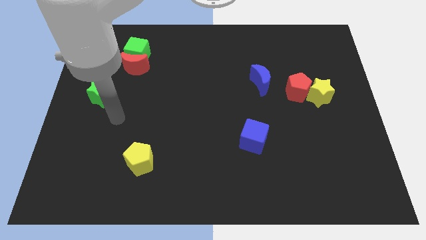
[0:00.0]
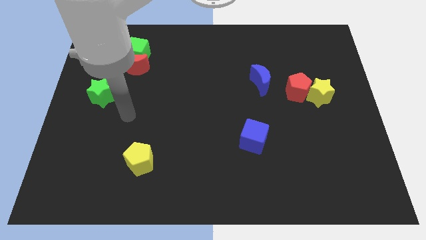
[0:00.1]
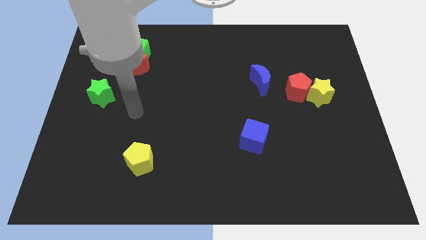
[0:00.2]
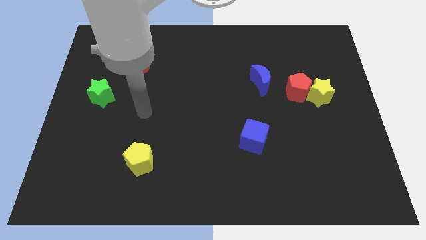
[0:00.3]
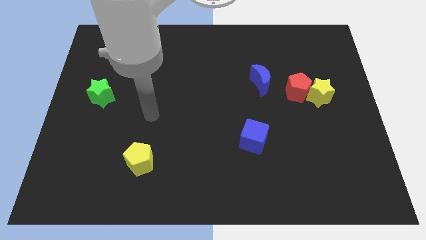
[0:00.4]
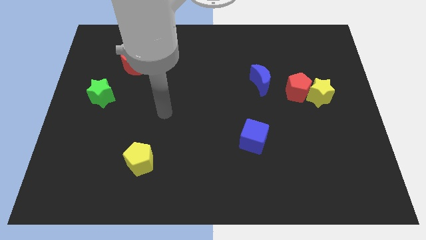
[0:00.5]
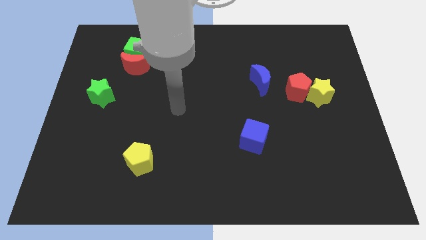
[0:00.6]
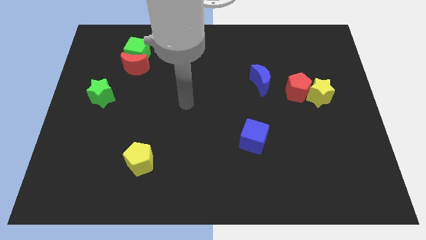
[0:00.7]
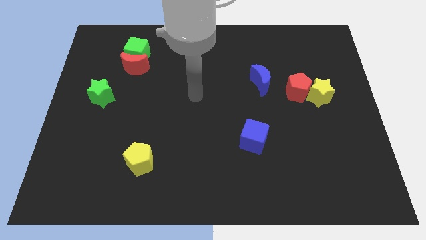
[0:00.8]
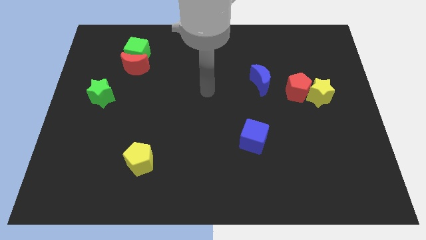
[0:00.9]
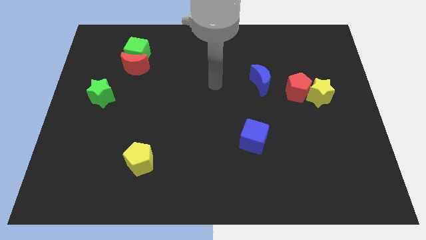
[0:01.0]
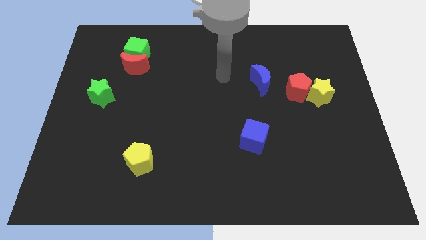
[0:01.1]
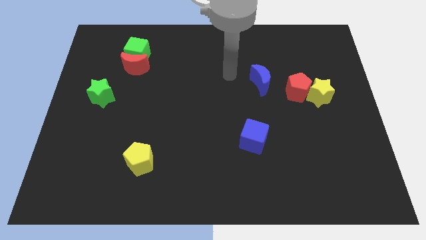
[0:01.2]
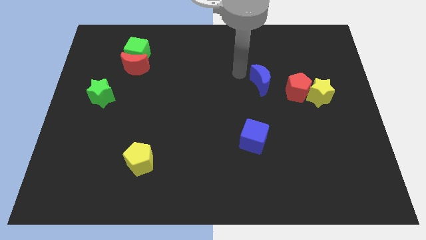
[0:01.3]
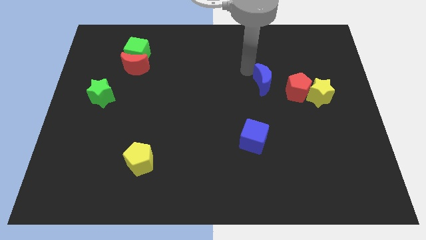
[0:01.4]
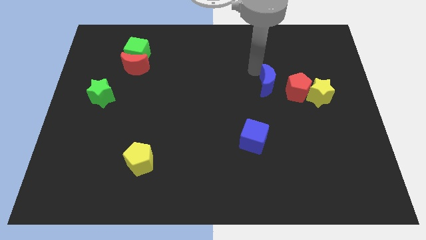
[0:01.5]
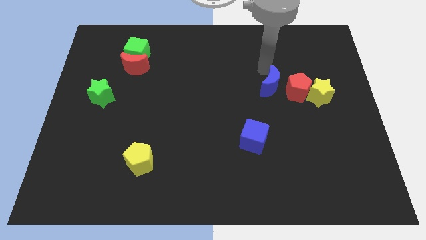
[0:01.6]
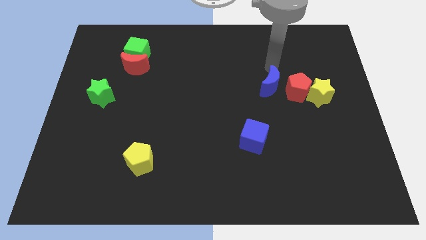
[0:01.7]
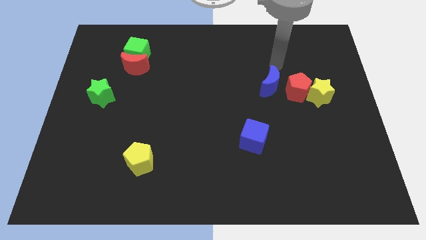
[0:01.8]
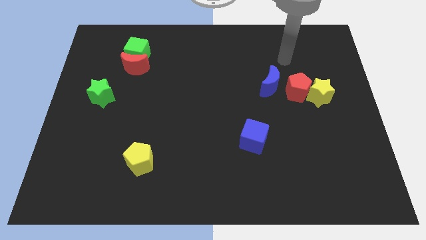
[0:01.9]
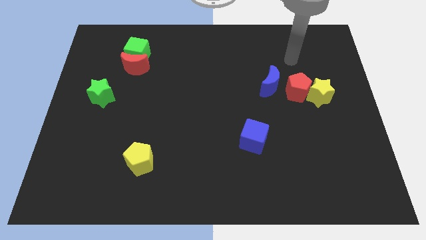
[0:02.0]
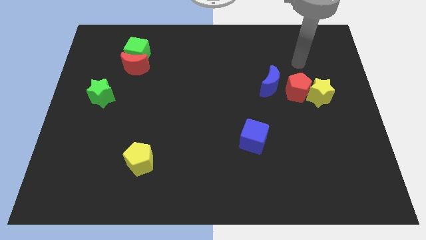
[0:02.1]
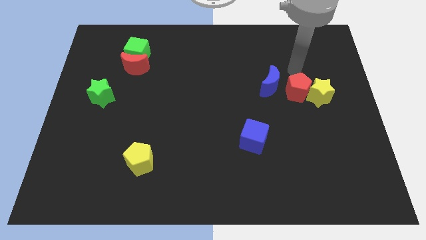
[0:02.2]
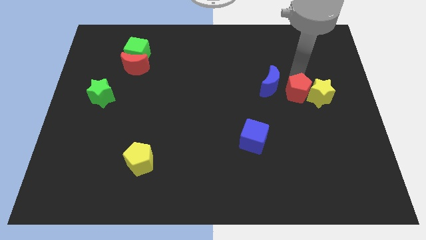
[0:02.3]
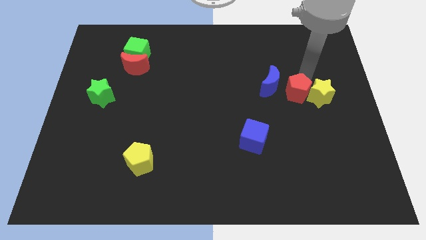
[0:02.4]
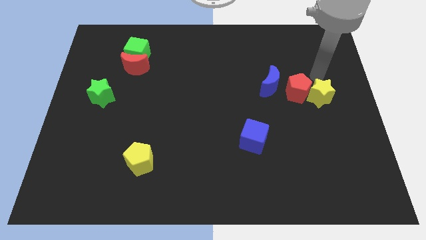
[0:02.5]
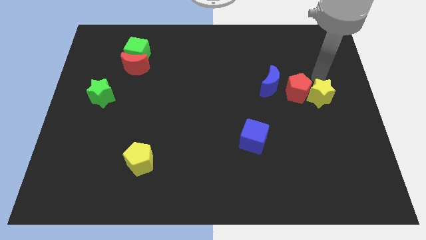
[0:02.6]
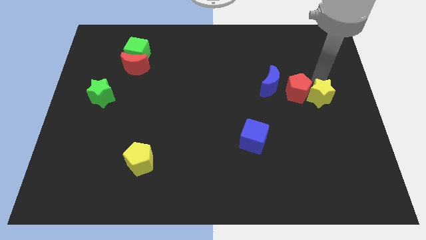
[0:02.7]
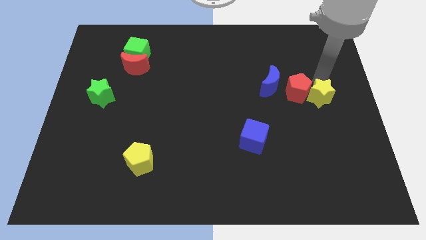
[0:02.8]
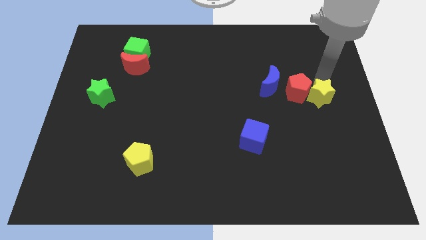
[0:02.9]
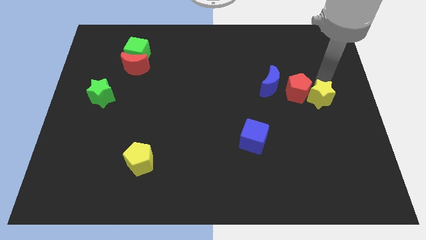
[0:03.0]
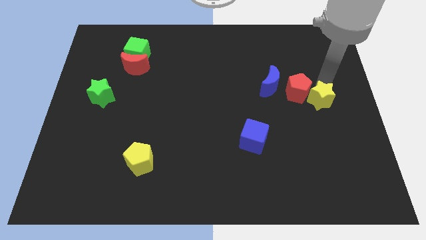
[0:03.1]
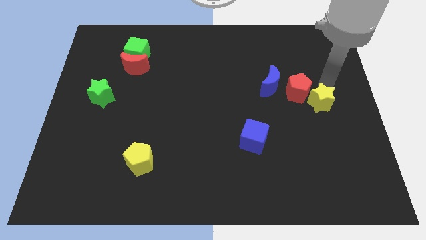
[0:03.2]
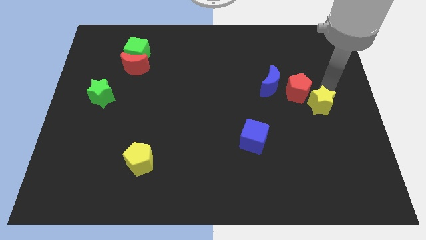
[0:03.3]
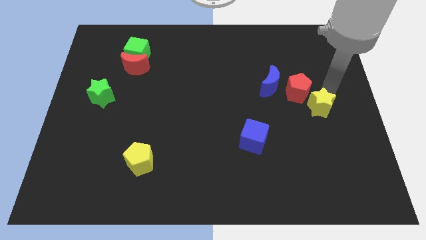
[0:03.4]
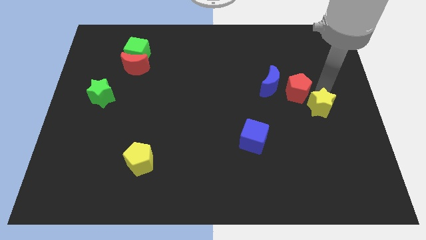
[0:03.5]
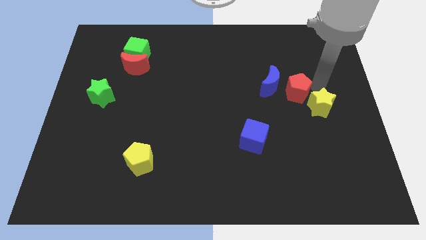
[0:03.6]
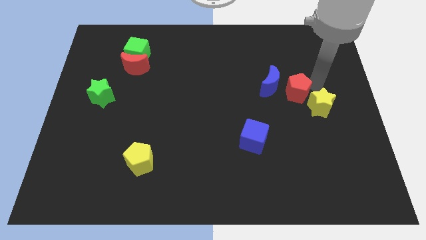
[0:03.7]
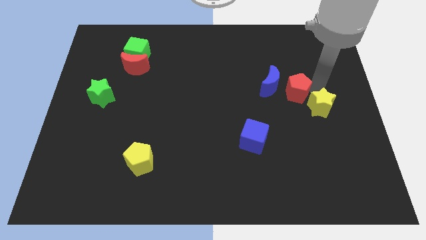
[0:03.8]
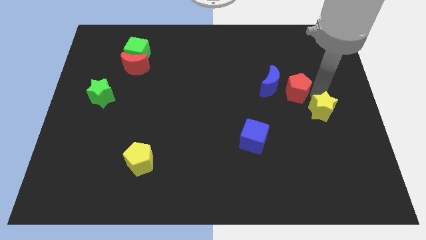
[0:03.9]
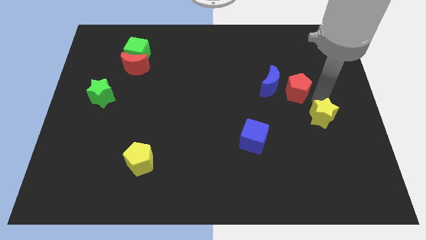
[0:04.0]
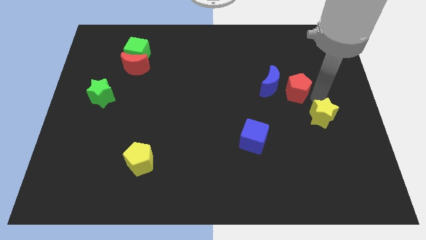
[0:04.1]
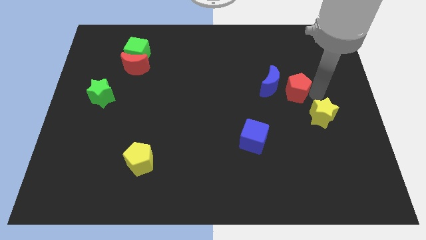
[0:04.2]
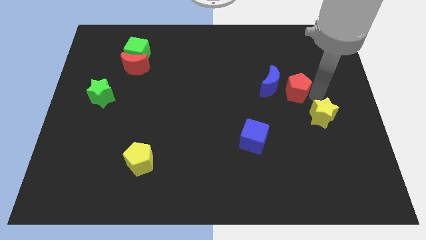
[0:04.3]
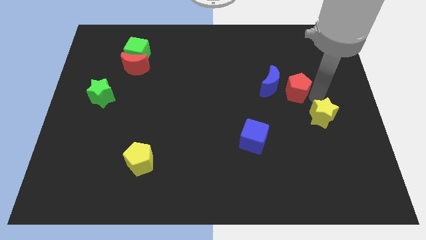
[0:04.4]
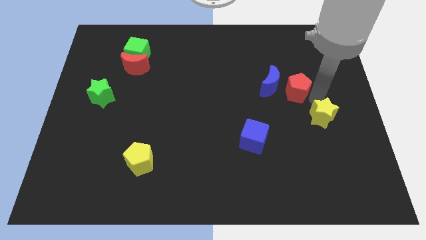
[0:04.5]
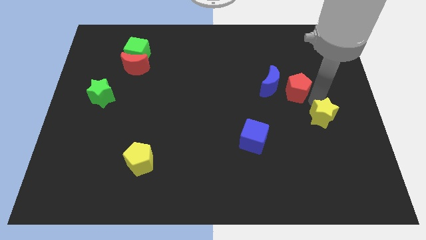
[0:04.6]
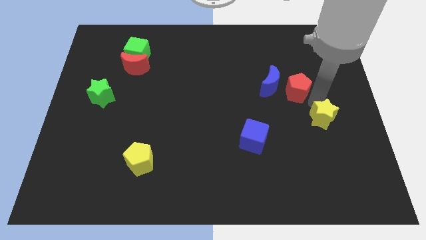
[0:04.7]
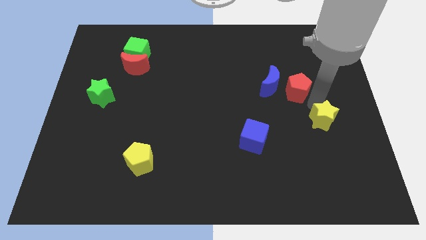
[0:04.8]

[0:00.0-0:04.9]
slide the yellow star downwards a bit

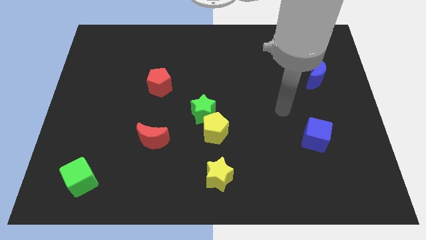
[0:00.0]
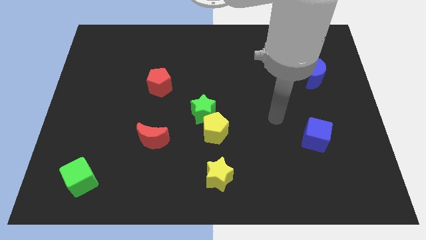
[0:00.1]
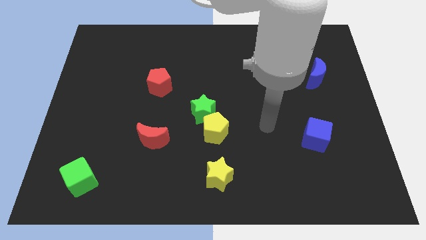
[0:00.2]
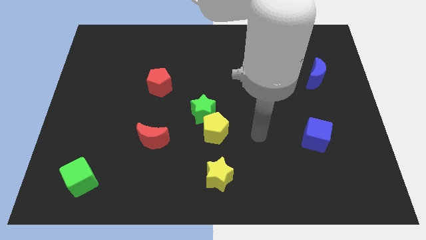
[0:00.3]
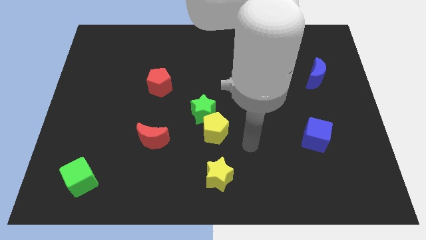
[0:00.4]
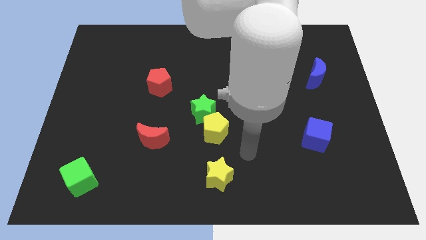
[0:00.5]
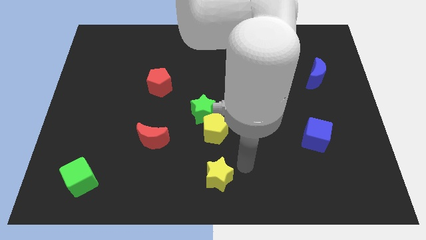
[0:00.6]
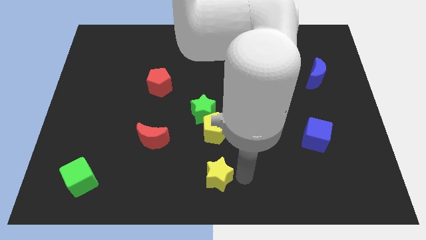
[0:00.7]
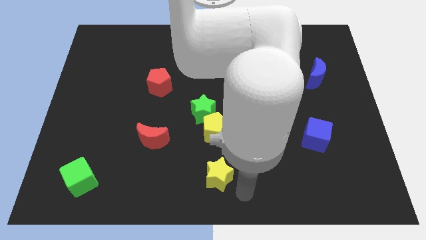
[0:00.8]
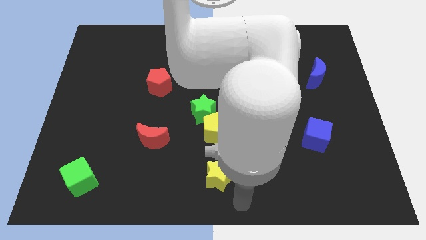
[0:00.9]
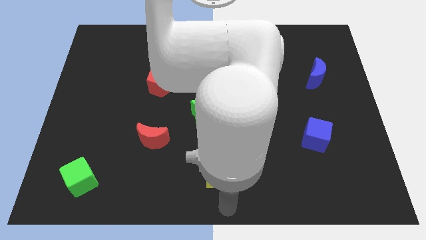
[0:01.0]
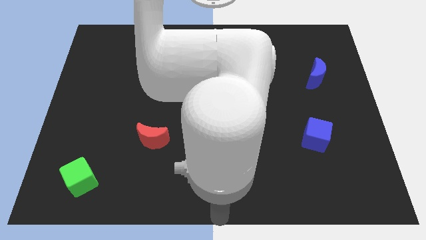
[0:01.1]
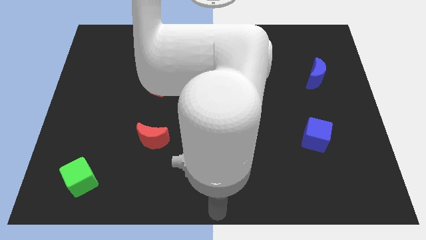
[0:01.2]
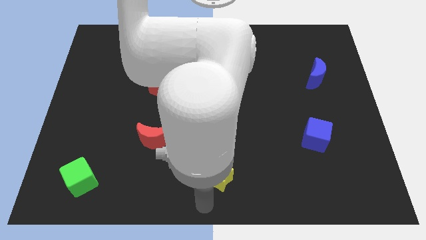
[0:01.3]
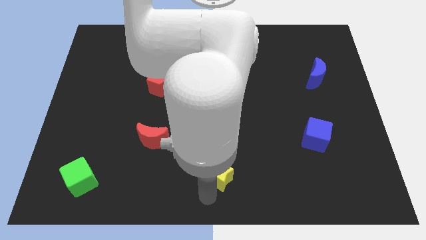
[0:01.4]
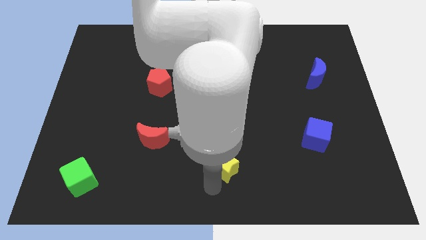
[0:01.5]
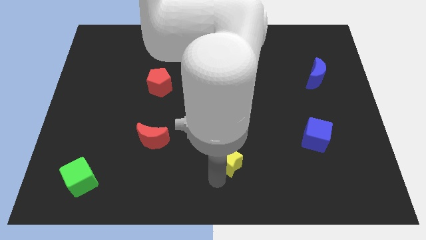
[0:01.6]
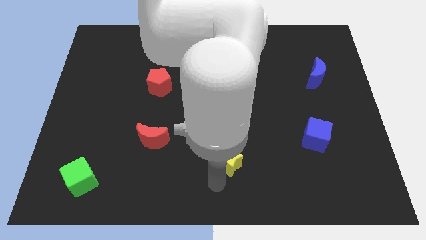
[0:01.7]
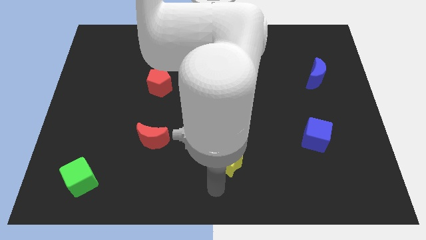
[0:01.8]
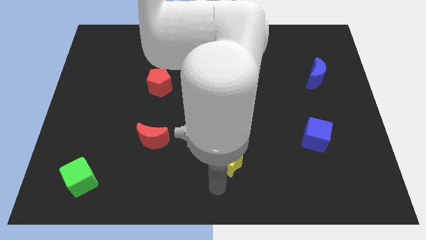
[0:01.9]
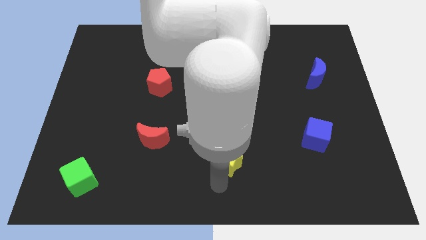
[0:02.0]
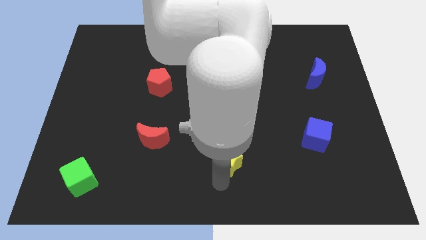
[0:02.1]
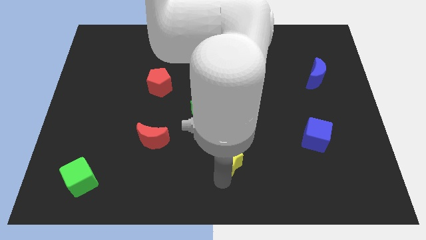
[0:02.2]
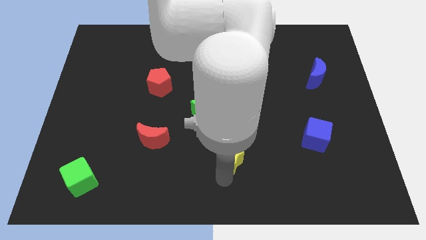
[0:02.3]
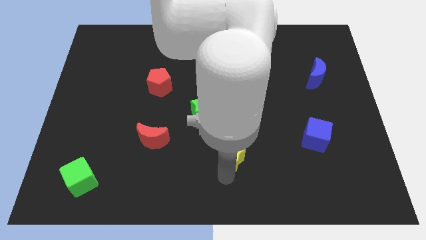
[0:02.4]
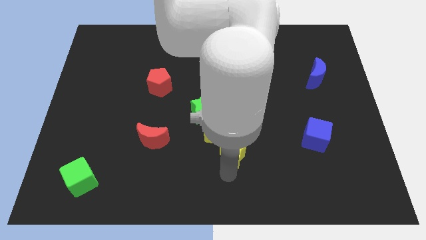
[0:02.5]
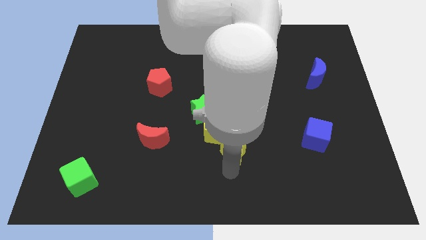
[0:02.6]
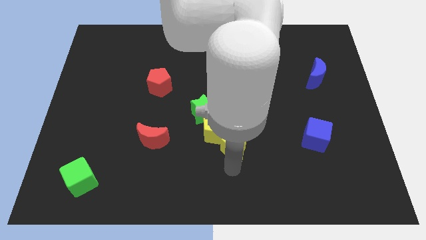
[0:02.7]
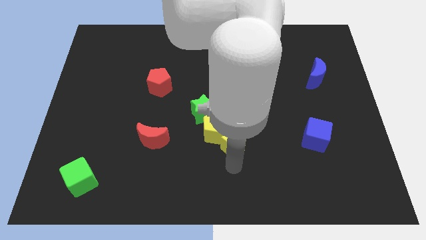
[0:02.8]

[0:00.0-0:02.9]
slide the yellow star up a little

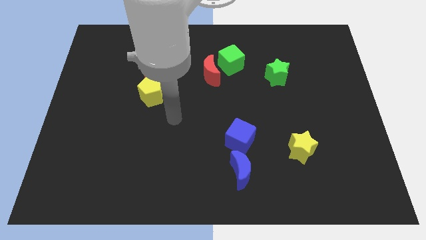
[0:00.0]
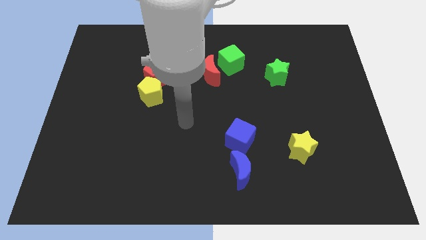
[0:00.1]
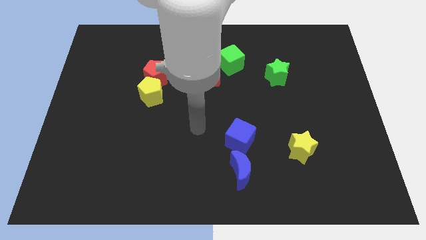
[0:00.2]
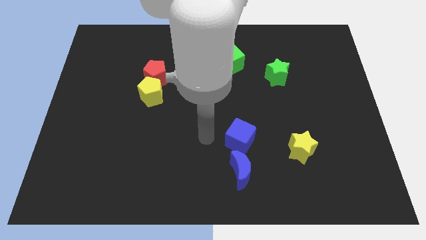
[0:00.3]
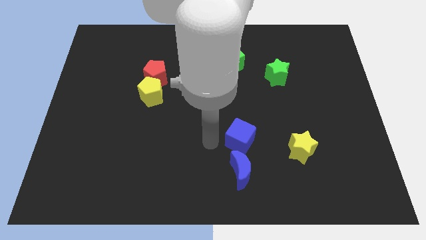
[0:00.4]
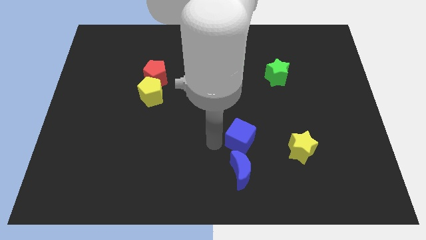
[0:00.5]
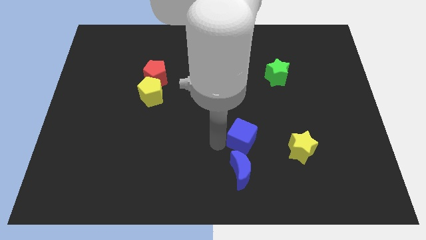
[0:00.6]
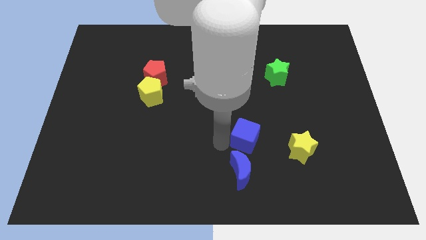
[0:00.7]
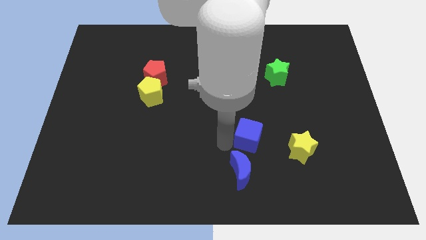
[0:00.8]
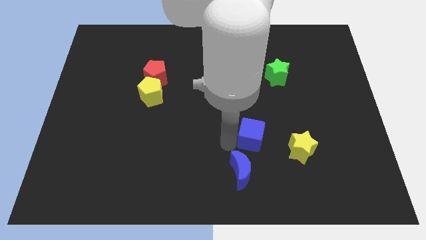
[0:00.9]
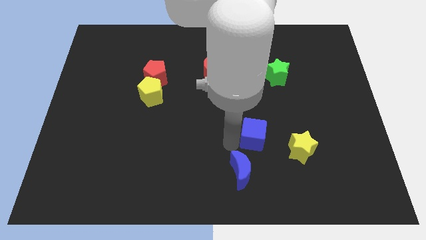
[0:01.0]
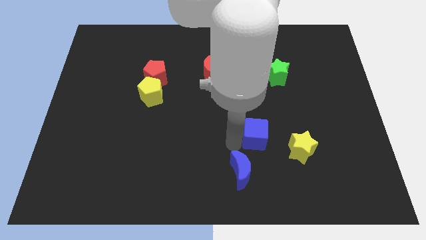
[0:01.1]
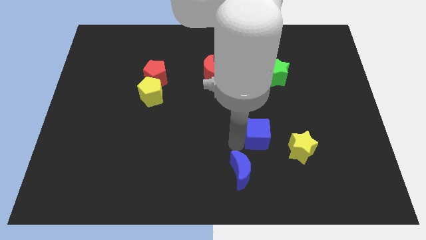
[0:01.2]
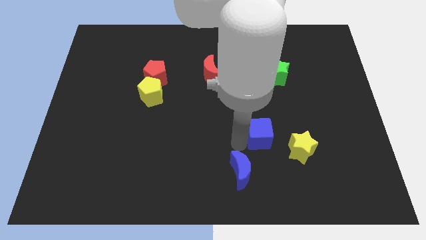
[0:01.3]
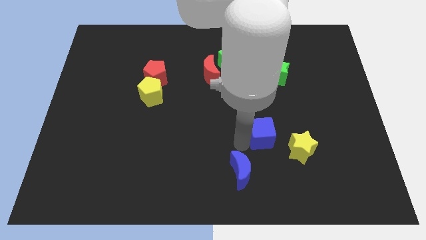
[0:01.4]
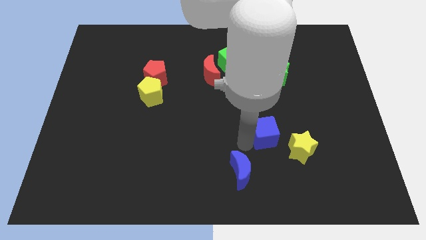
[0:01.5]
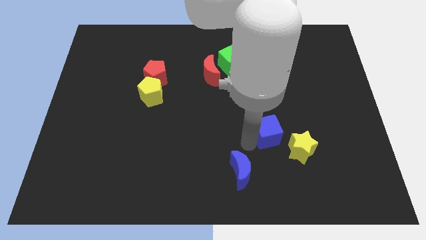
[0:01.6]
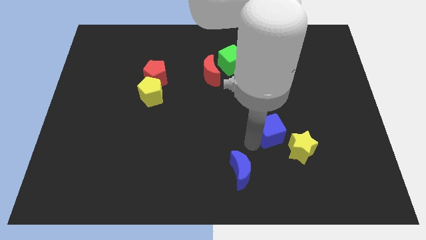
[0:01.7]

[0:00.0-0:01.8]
slightly move the blue cube to the right
